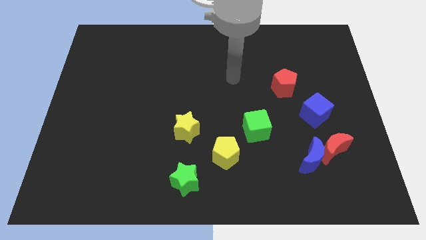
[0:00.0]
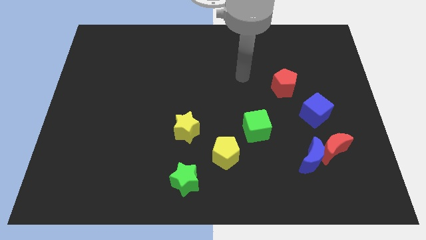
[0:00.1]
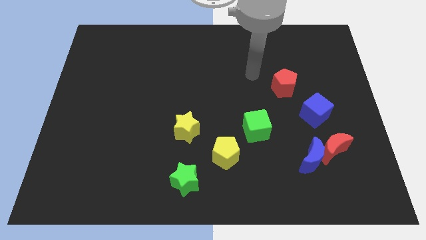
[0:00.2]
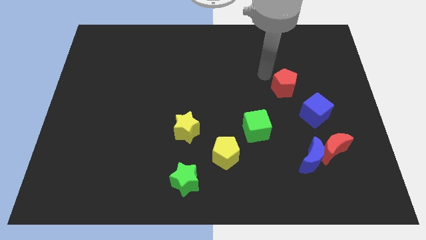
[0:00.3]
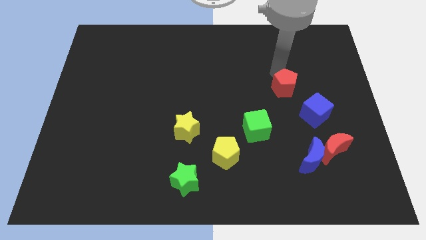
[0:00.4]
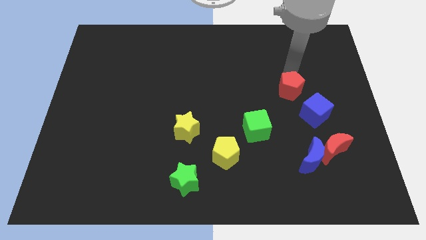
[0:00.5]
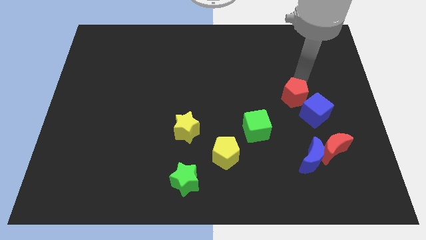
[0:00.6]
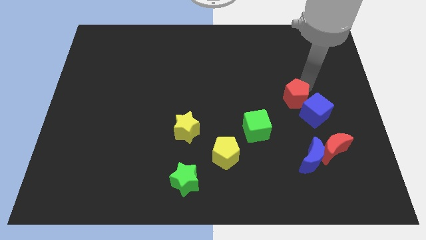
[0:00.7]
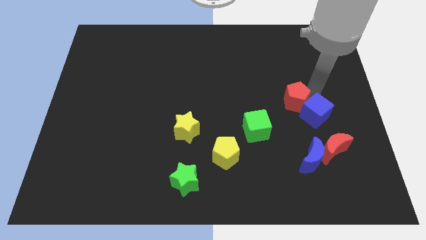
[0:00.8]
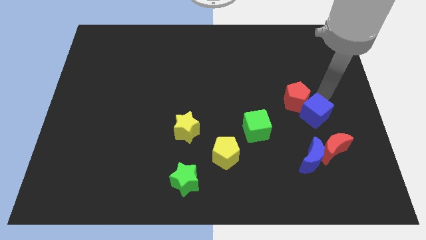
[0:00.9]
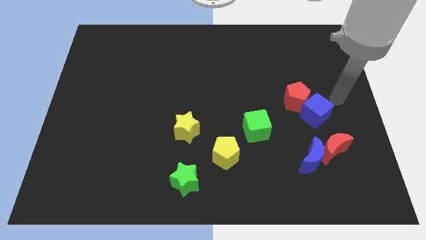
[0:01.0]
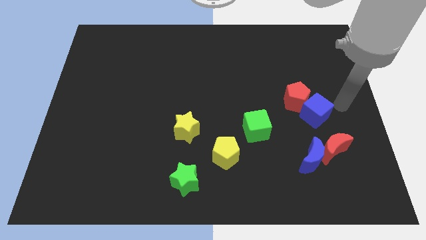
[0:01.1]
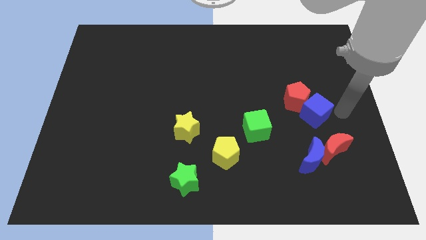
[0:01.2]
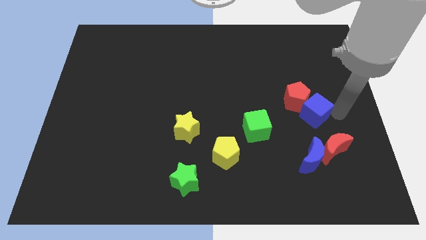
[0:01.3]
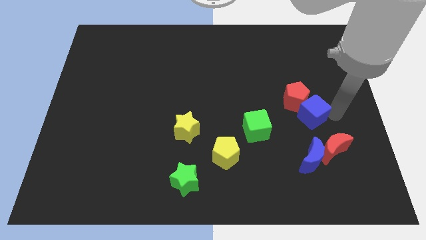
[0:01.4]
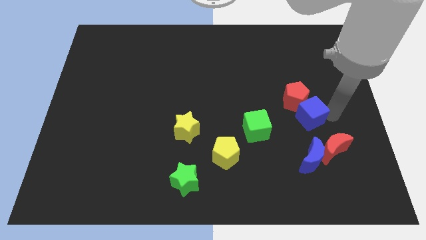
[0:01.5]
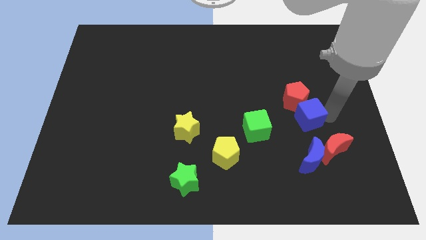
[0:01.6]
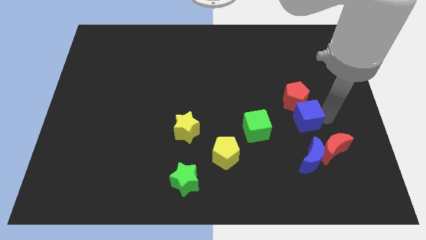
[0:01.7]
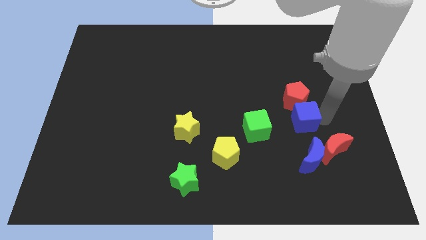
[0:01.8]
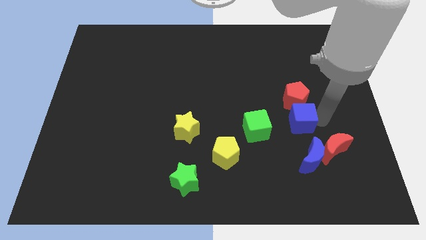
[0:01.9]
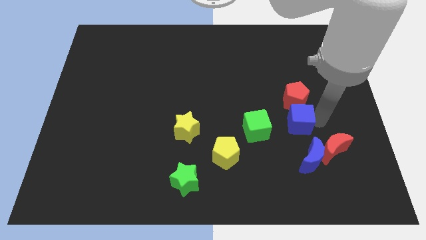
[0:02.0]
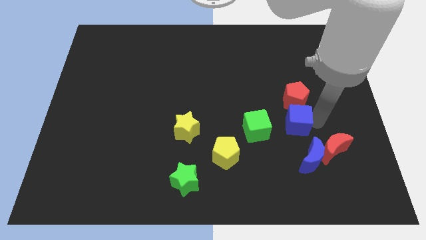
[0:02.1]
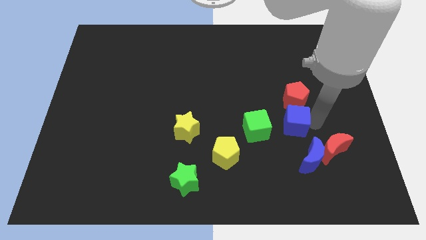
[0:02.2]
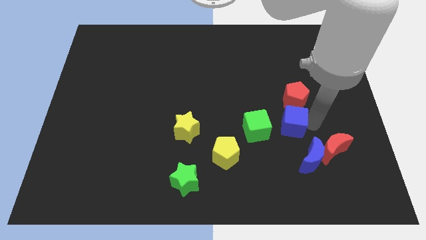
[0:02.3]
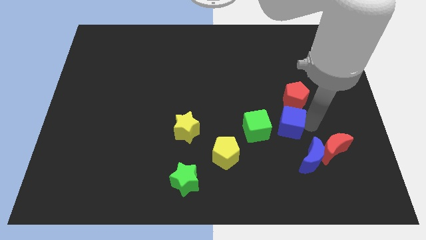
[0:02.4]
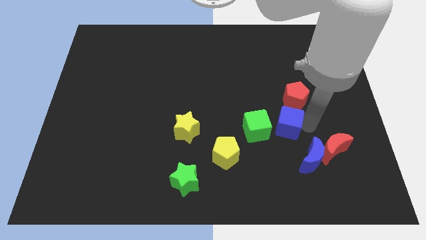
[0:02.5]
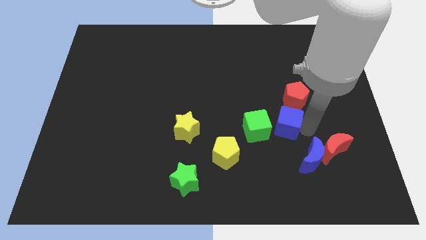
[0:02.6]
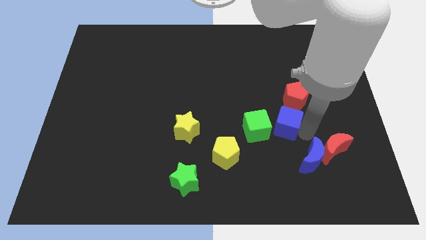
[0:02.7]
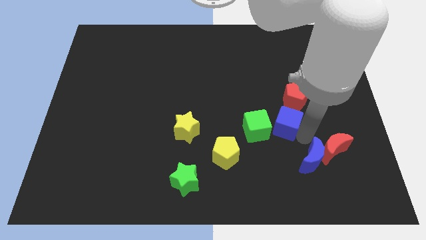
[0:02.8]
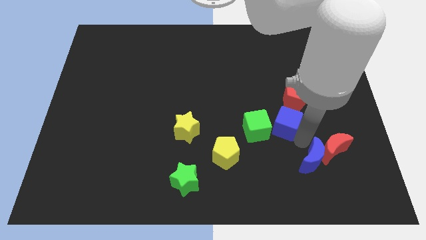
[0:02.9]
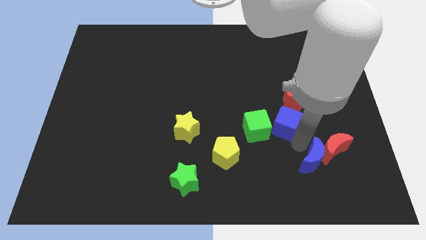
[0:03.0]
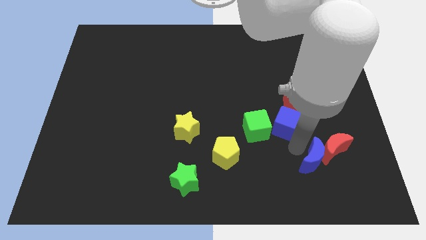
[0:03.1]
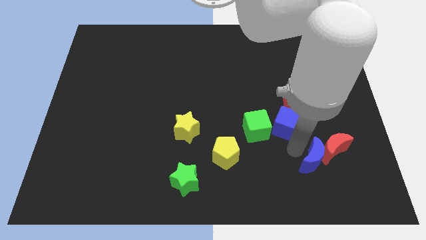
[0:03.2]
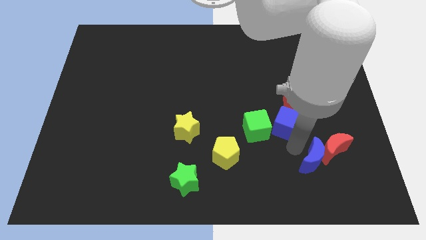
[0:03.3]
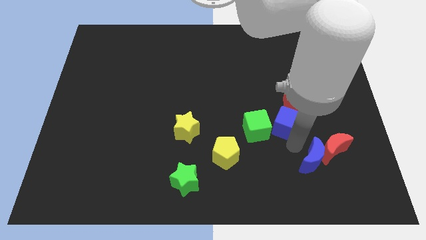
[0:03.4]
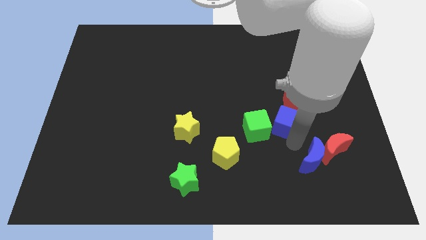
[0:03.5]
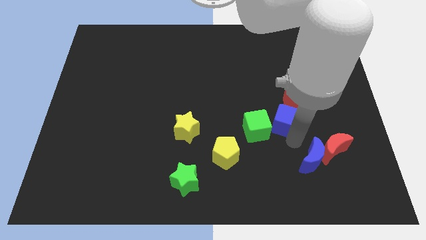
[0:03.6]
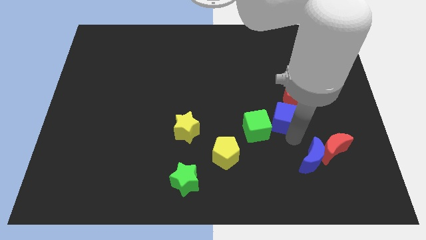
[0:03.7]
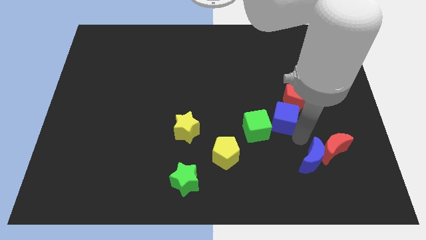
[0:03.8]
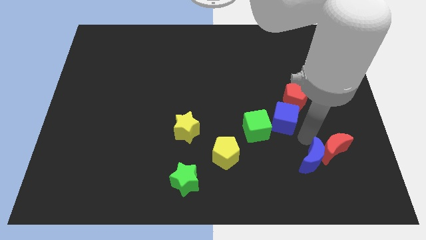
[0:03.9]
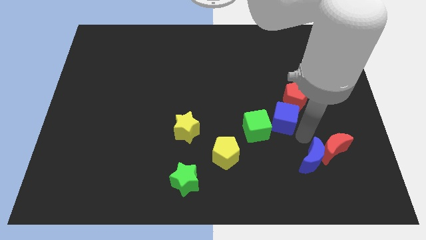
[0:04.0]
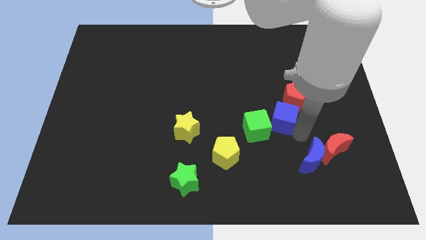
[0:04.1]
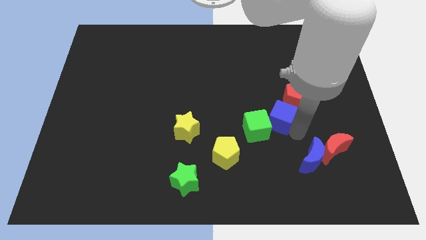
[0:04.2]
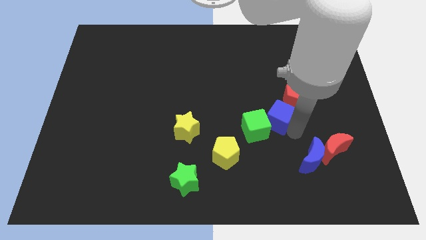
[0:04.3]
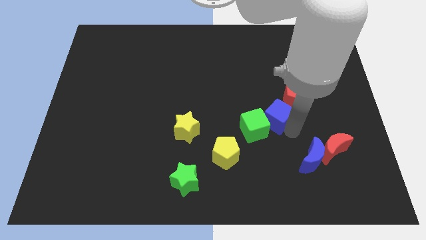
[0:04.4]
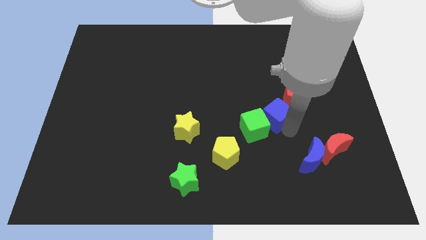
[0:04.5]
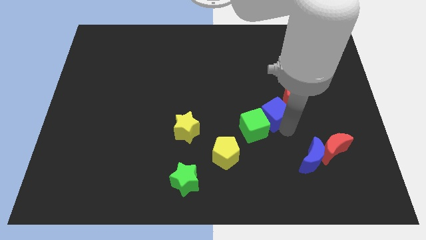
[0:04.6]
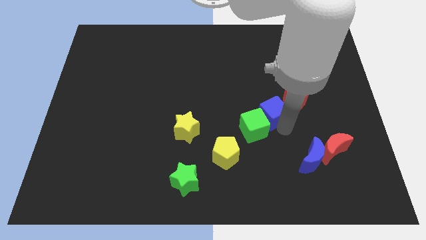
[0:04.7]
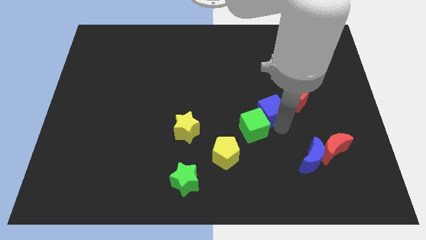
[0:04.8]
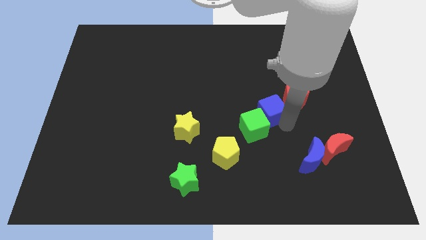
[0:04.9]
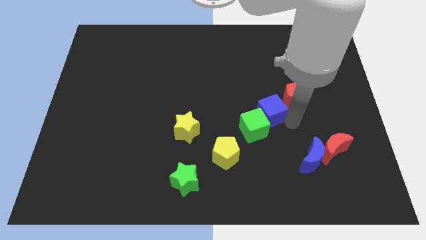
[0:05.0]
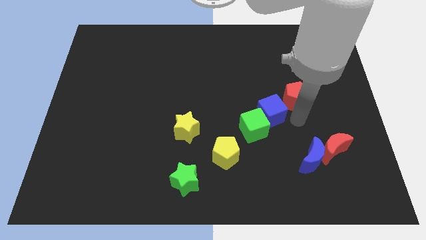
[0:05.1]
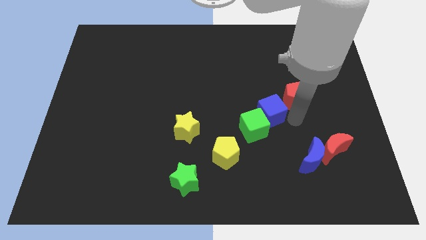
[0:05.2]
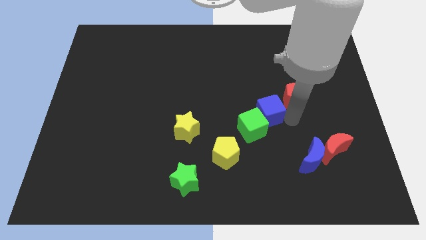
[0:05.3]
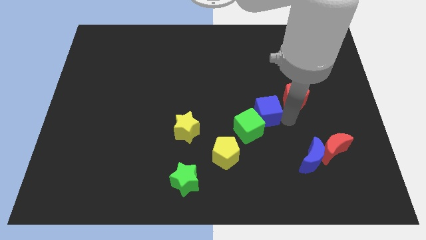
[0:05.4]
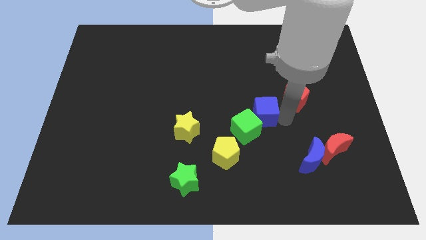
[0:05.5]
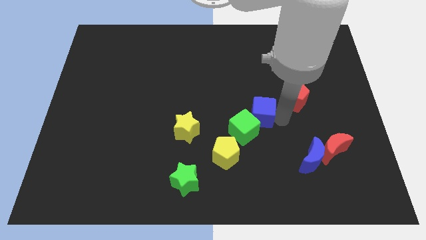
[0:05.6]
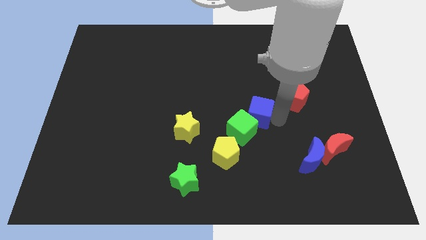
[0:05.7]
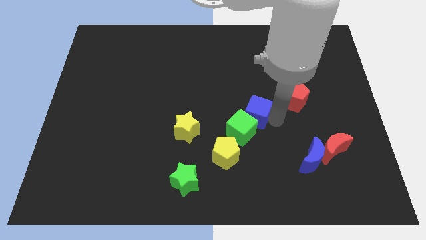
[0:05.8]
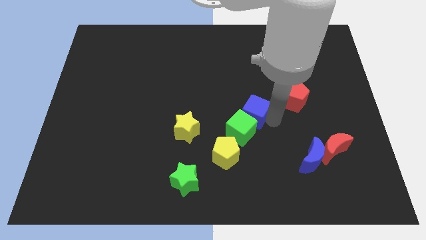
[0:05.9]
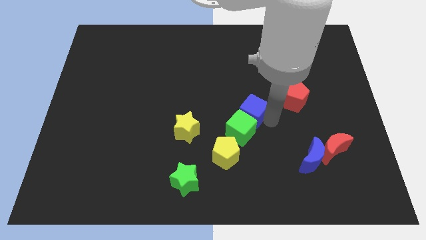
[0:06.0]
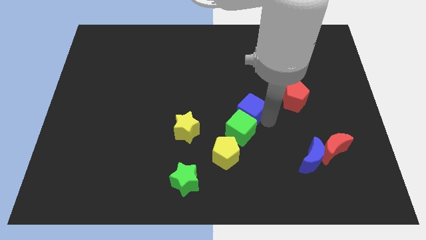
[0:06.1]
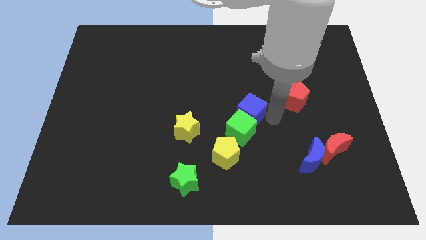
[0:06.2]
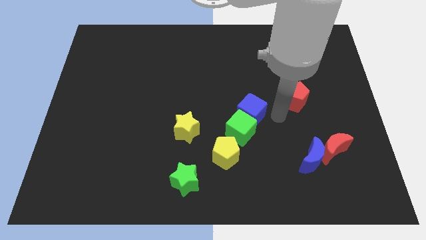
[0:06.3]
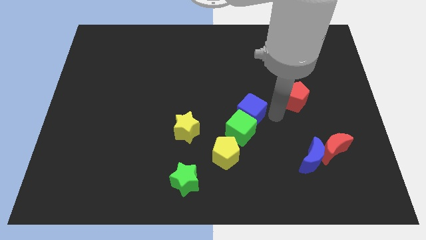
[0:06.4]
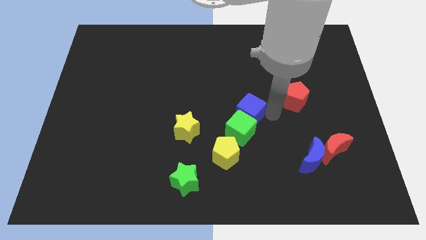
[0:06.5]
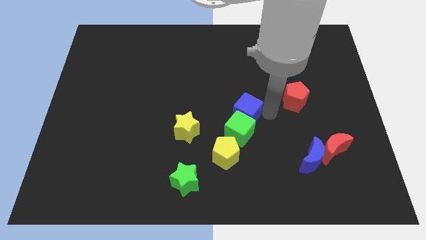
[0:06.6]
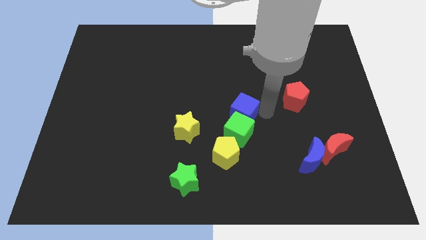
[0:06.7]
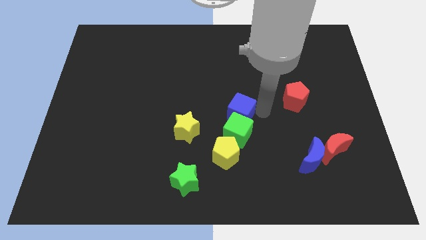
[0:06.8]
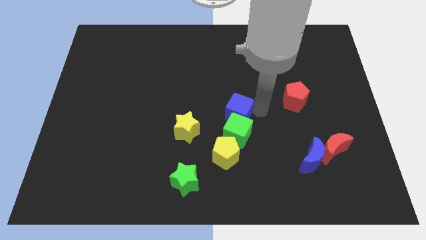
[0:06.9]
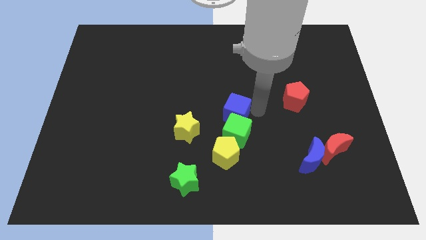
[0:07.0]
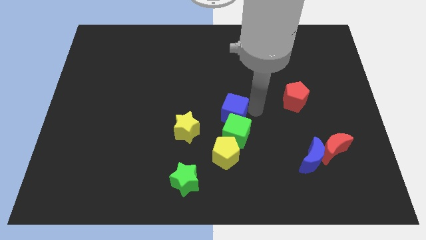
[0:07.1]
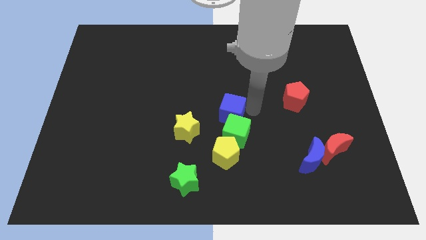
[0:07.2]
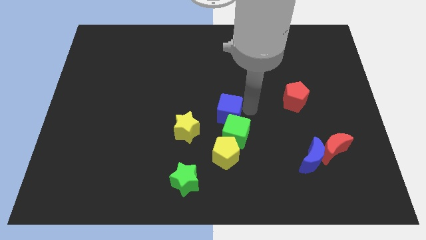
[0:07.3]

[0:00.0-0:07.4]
push the blue cube left

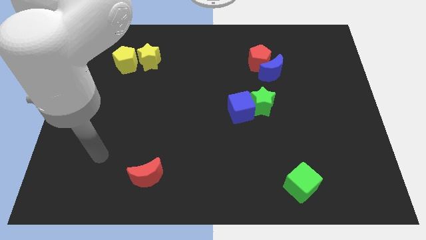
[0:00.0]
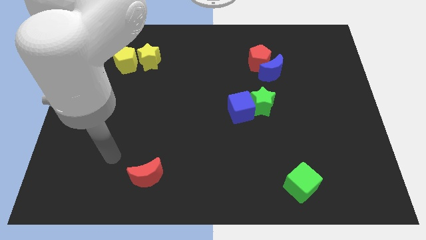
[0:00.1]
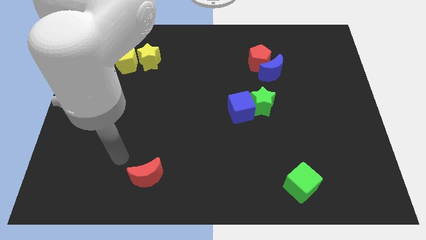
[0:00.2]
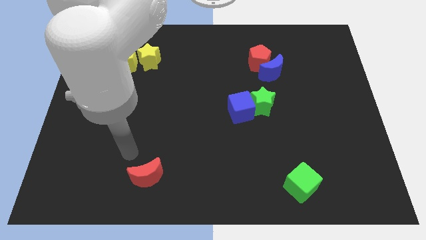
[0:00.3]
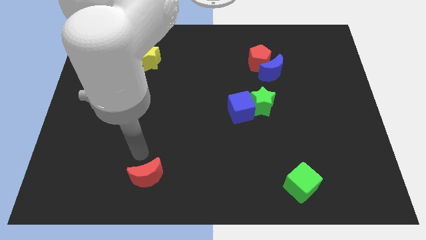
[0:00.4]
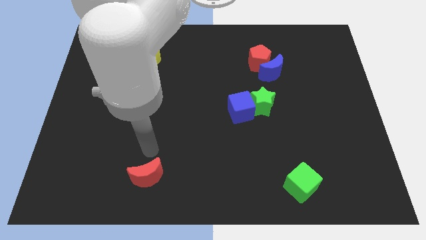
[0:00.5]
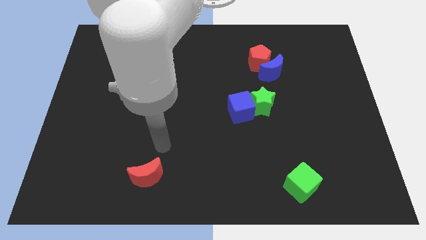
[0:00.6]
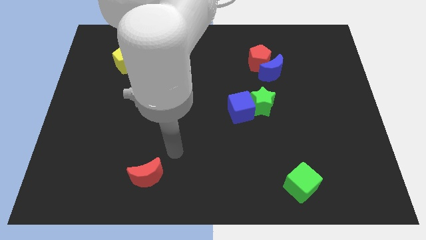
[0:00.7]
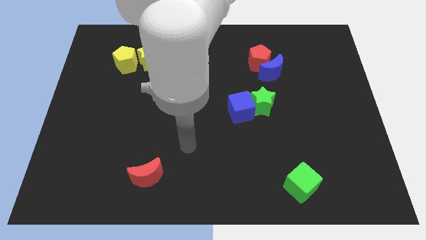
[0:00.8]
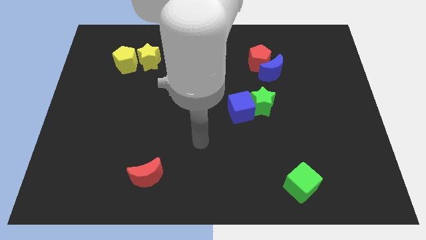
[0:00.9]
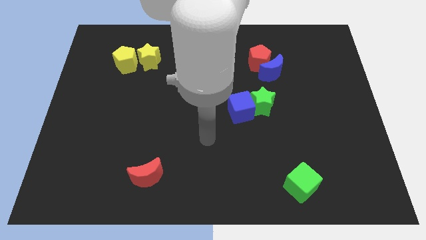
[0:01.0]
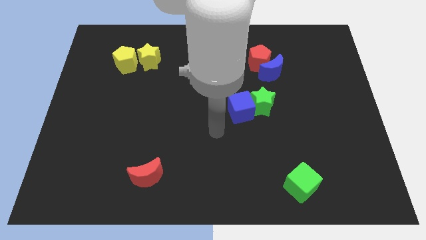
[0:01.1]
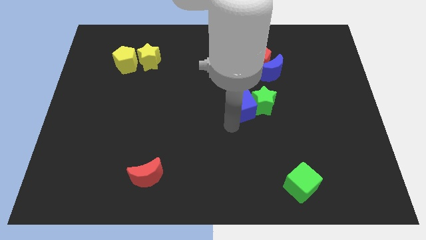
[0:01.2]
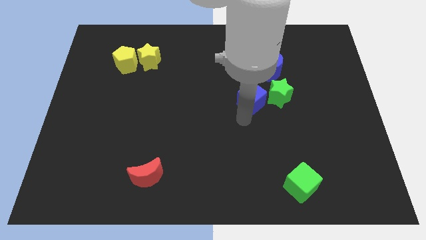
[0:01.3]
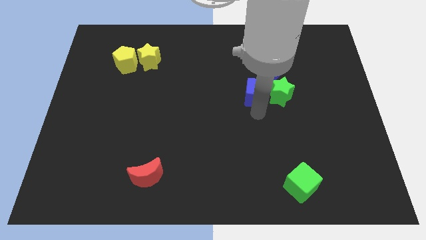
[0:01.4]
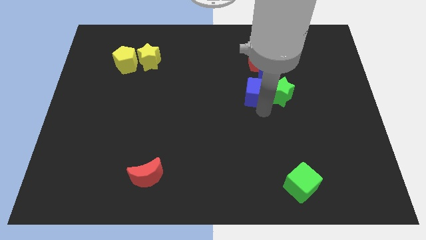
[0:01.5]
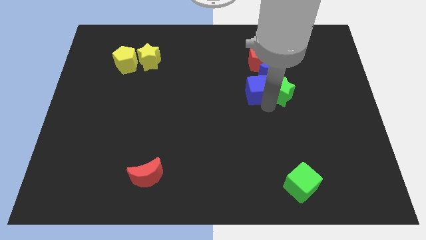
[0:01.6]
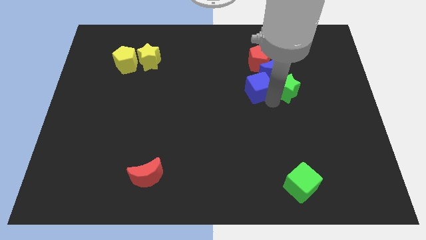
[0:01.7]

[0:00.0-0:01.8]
slightly slide the green star diagonally up and to the right
